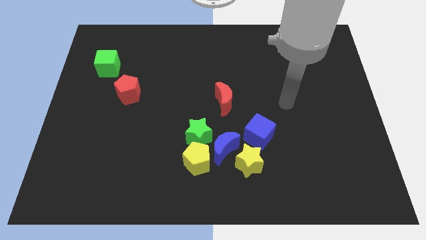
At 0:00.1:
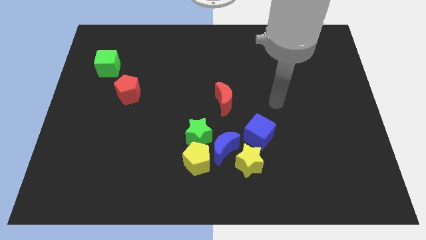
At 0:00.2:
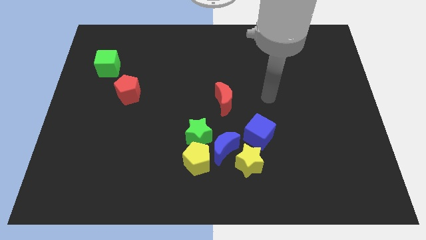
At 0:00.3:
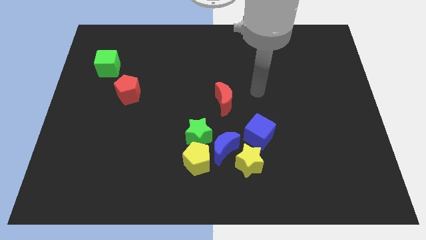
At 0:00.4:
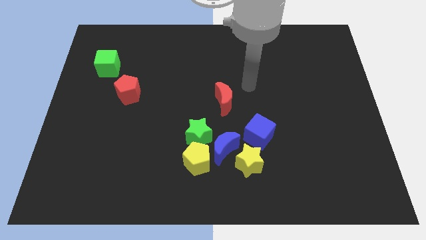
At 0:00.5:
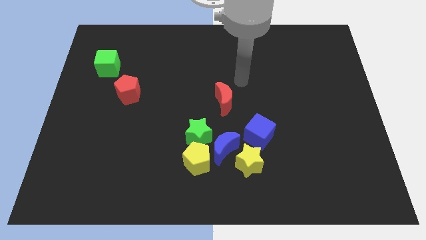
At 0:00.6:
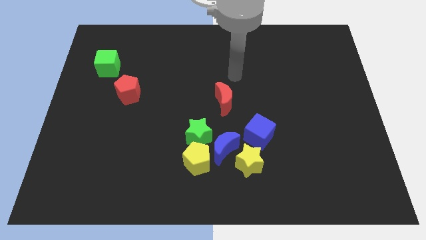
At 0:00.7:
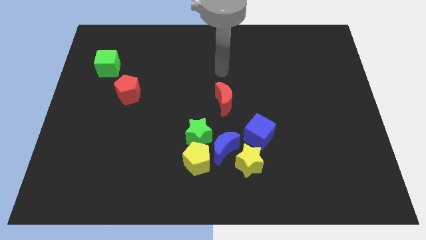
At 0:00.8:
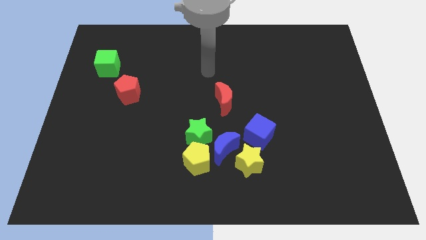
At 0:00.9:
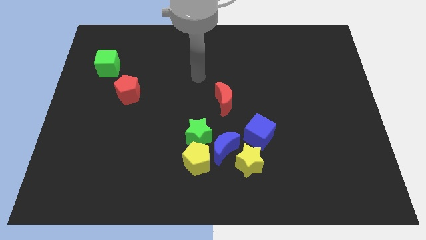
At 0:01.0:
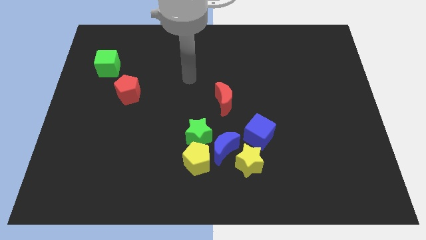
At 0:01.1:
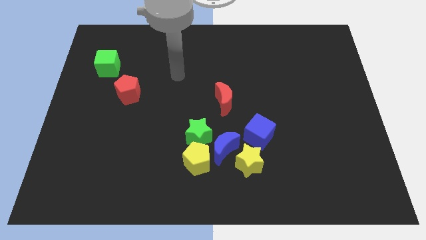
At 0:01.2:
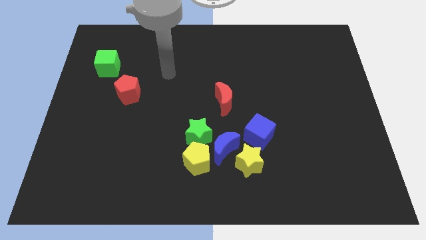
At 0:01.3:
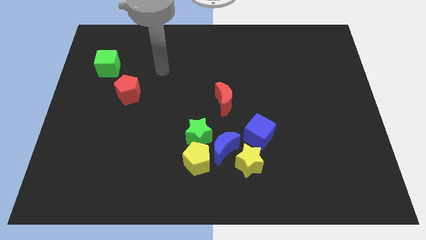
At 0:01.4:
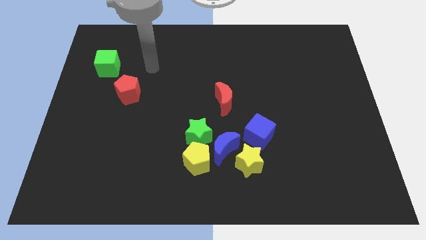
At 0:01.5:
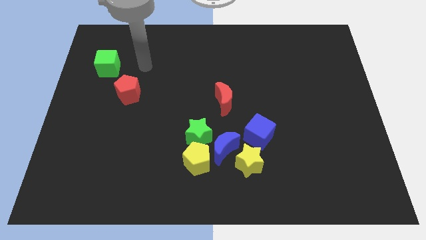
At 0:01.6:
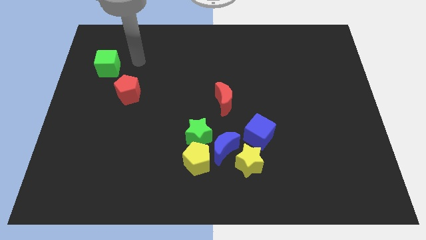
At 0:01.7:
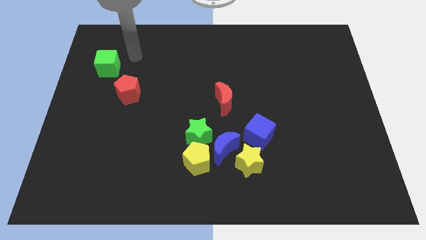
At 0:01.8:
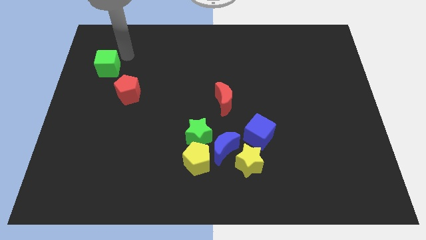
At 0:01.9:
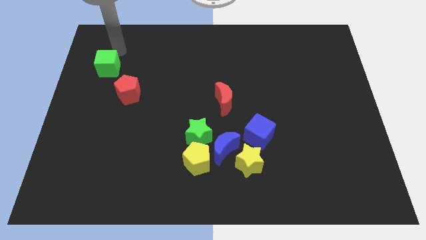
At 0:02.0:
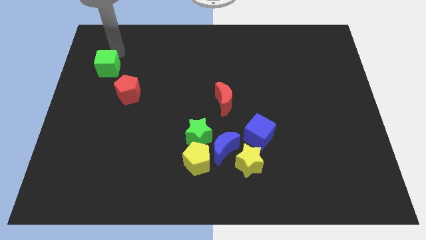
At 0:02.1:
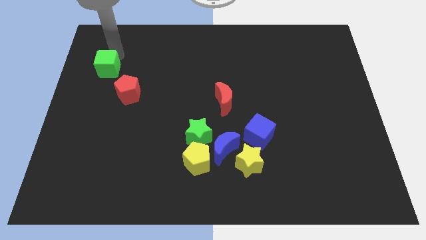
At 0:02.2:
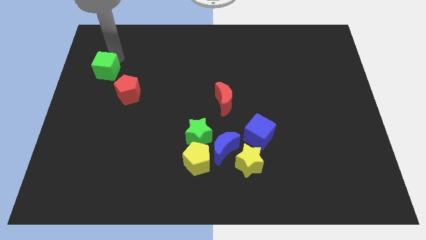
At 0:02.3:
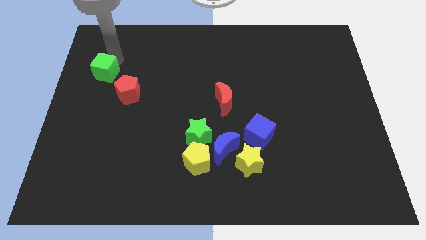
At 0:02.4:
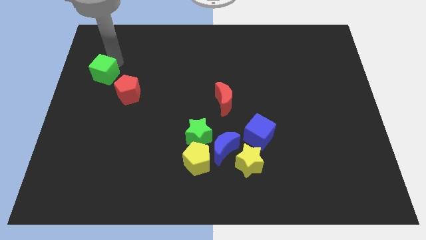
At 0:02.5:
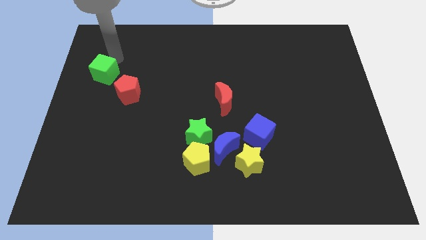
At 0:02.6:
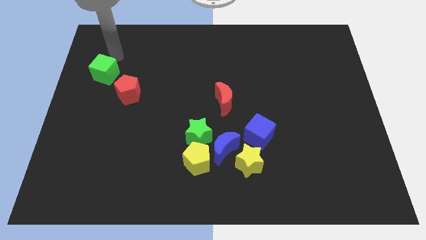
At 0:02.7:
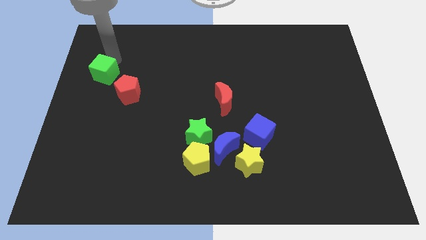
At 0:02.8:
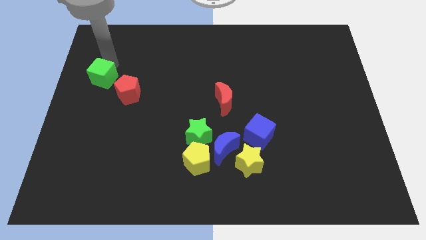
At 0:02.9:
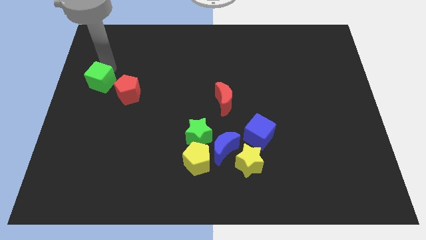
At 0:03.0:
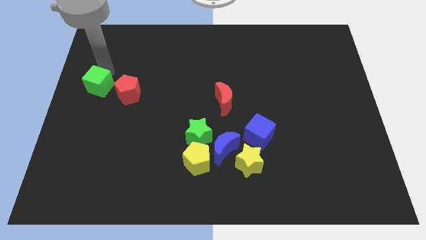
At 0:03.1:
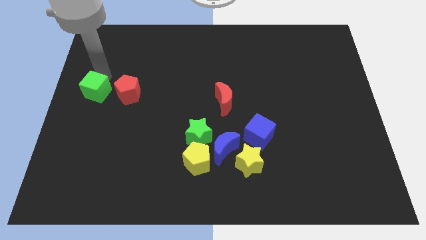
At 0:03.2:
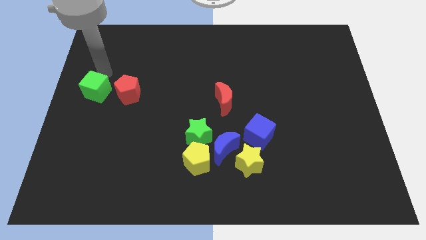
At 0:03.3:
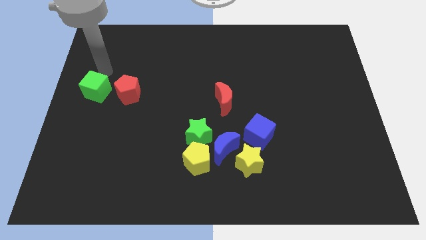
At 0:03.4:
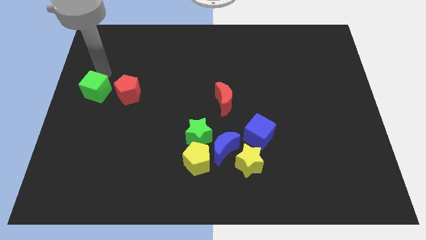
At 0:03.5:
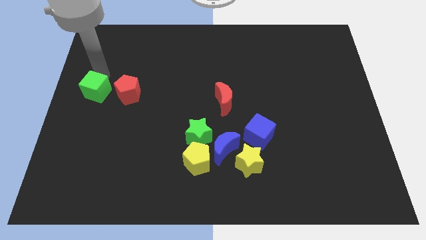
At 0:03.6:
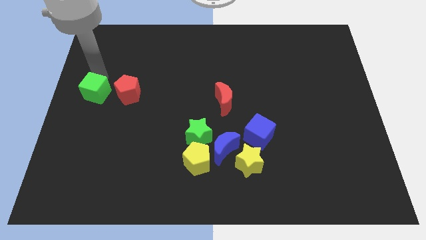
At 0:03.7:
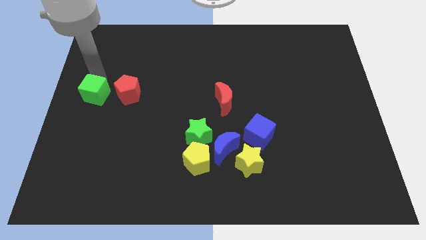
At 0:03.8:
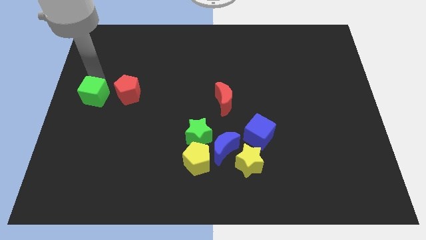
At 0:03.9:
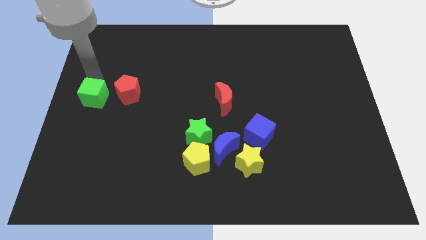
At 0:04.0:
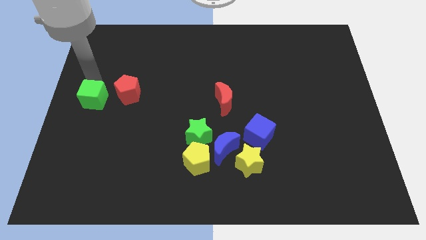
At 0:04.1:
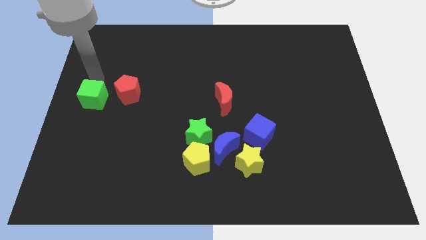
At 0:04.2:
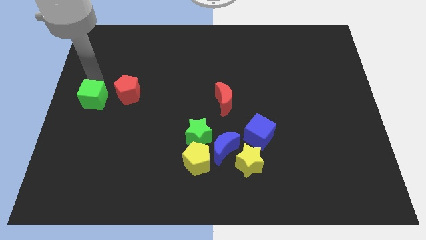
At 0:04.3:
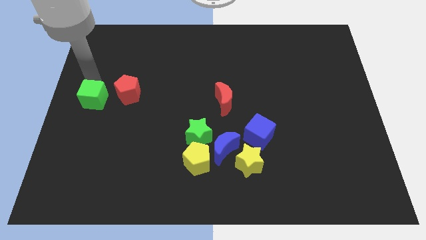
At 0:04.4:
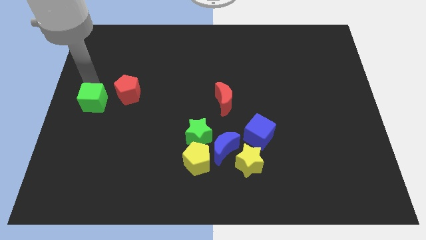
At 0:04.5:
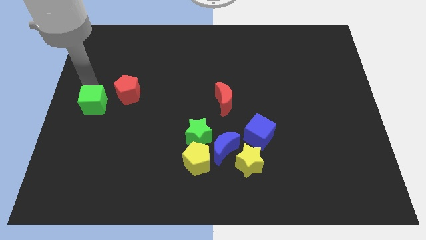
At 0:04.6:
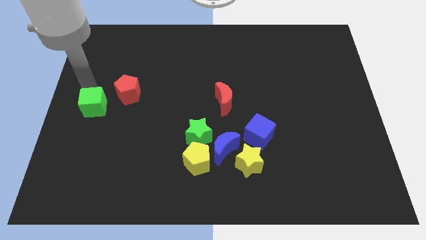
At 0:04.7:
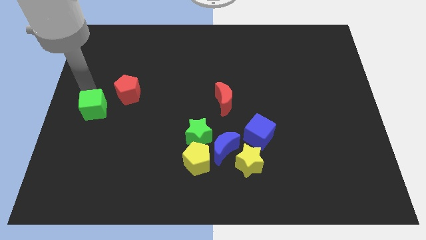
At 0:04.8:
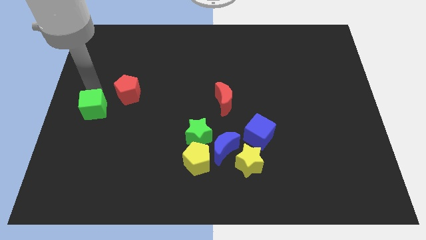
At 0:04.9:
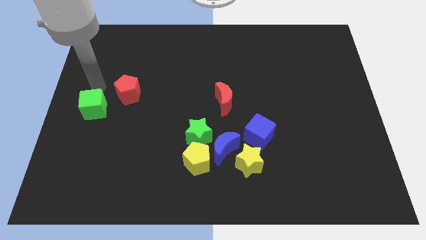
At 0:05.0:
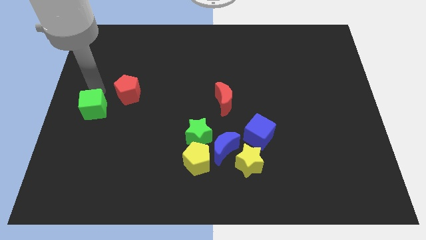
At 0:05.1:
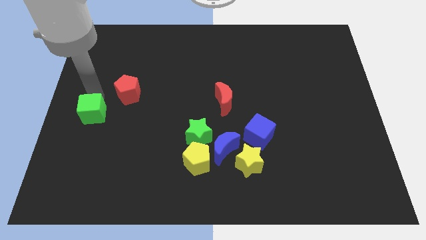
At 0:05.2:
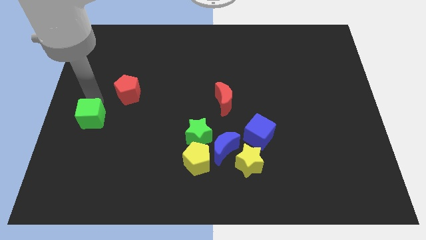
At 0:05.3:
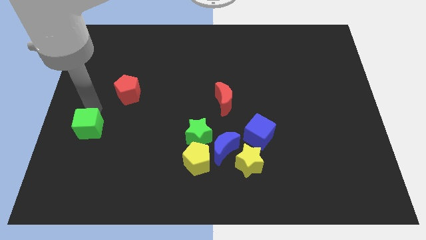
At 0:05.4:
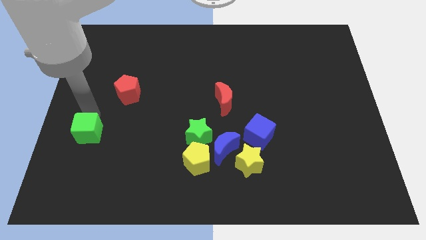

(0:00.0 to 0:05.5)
push the green cube down

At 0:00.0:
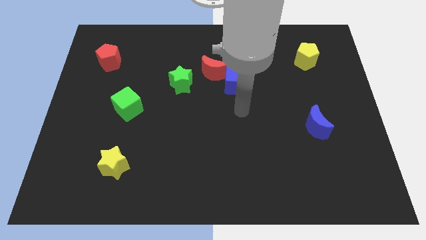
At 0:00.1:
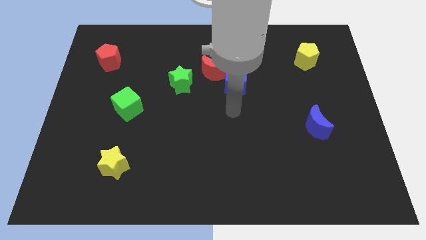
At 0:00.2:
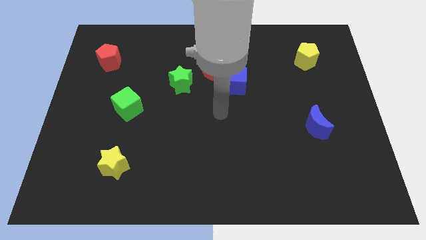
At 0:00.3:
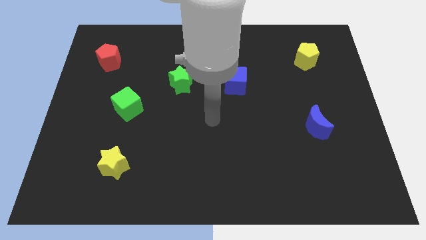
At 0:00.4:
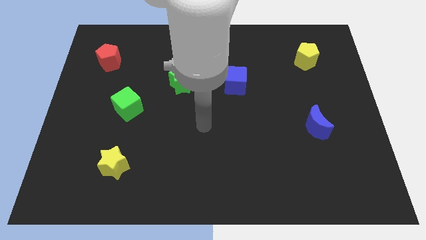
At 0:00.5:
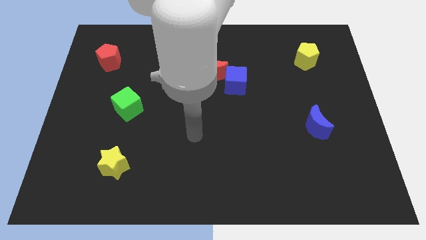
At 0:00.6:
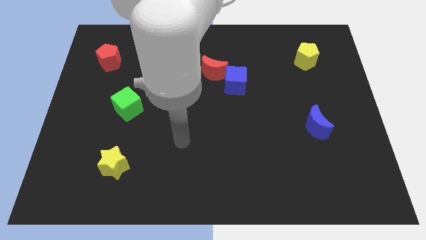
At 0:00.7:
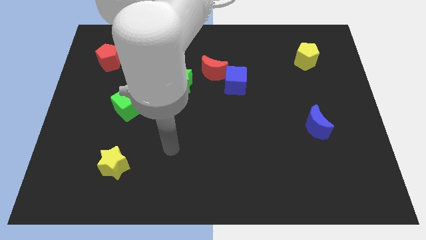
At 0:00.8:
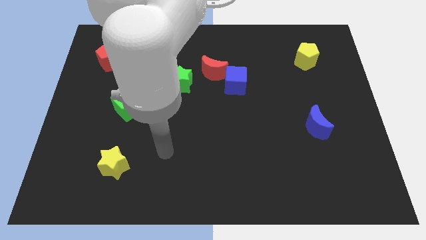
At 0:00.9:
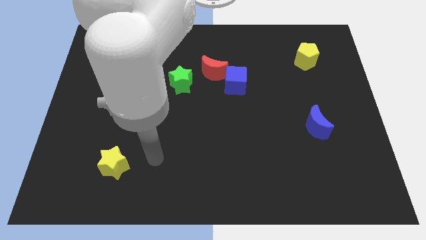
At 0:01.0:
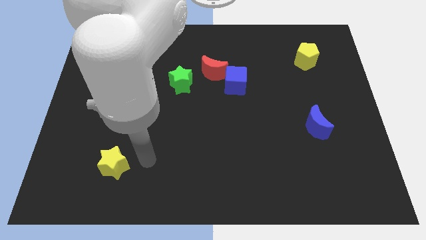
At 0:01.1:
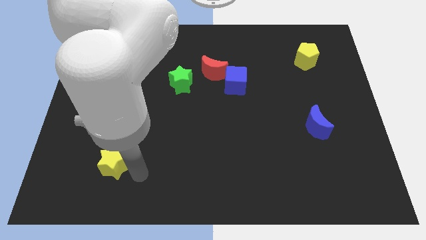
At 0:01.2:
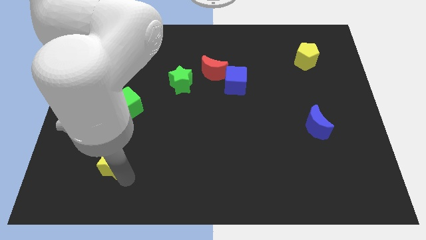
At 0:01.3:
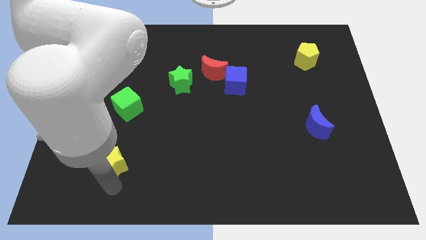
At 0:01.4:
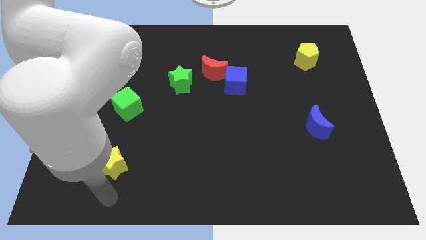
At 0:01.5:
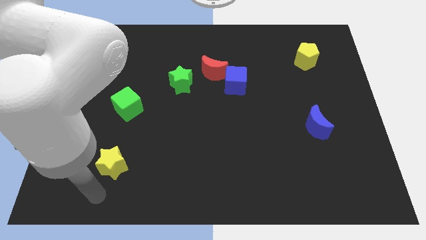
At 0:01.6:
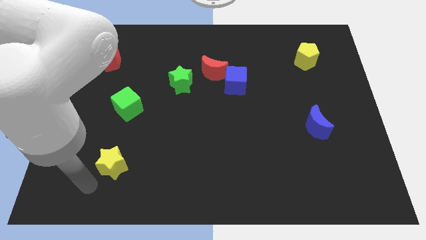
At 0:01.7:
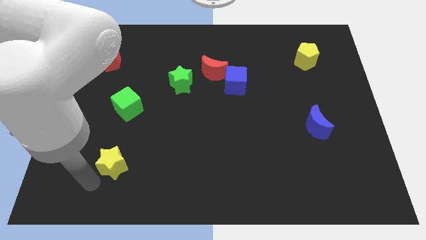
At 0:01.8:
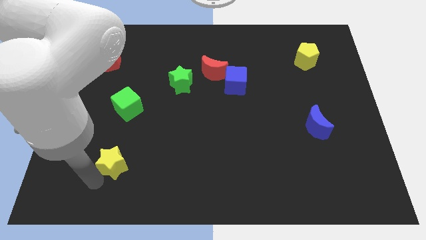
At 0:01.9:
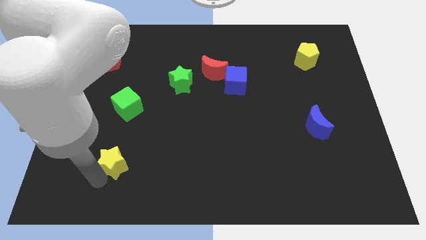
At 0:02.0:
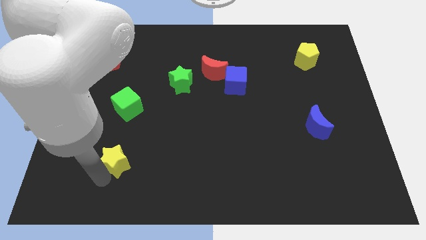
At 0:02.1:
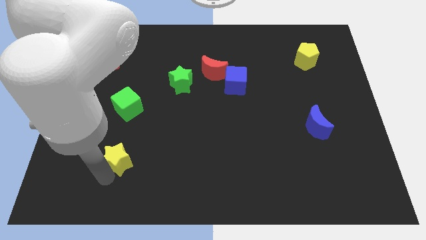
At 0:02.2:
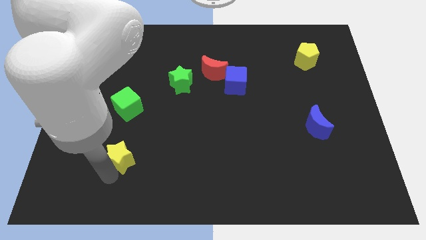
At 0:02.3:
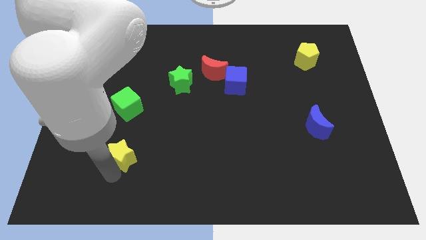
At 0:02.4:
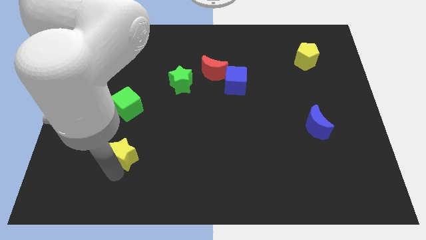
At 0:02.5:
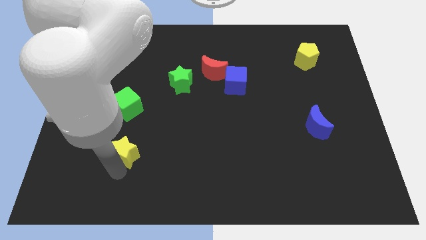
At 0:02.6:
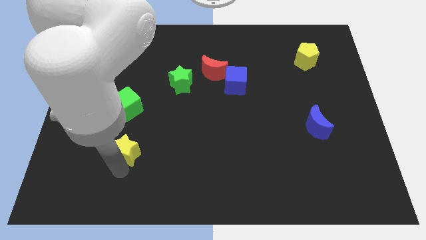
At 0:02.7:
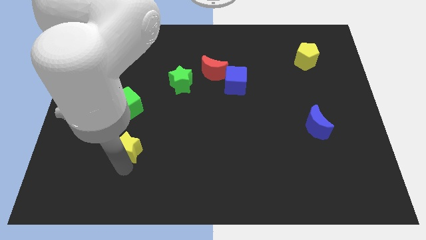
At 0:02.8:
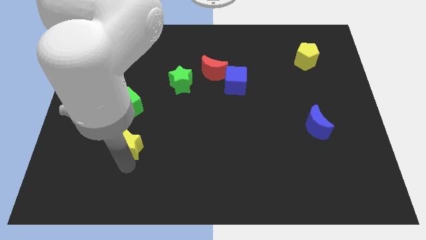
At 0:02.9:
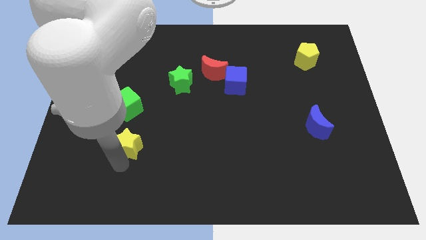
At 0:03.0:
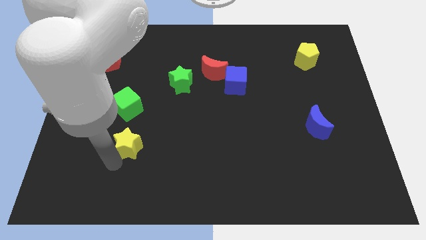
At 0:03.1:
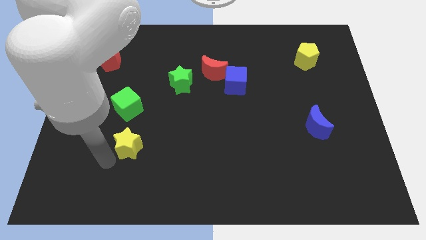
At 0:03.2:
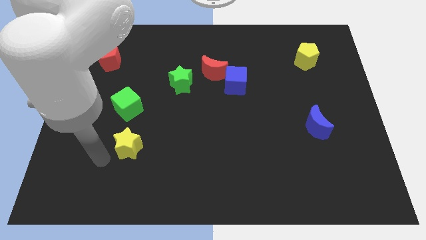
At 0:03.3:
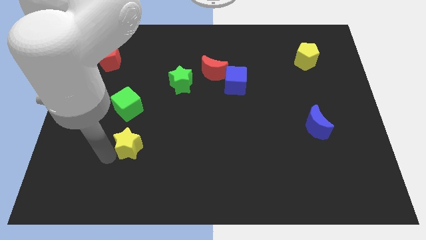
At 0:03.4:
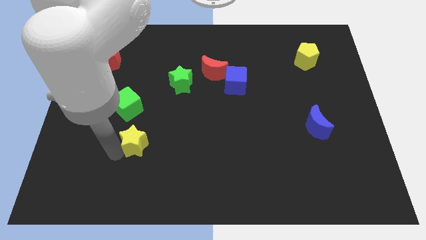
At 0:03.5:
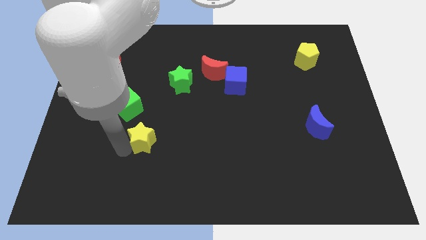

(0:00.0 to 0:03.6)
push the yellow star a bit upwards and then right
